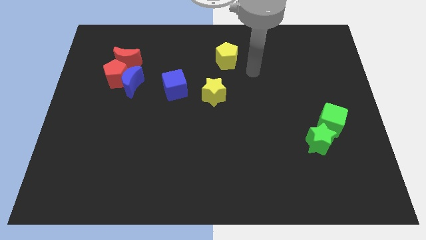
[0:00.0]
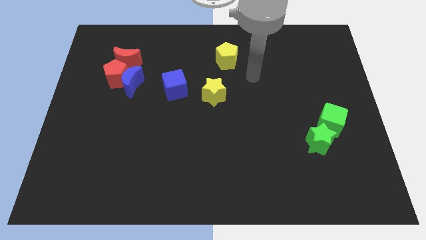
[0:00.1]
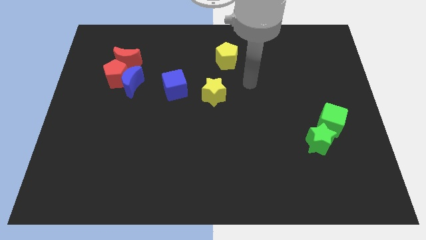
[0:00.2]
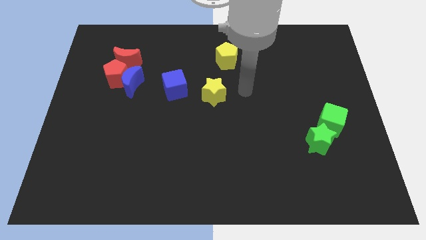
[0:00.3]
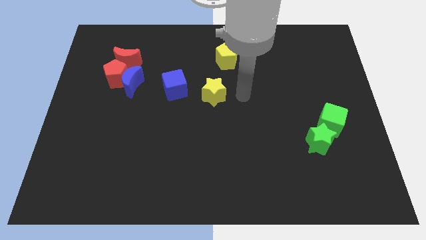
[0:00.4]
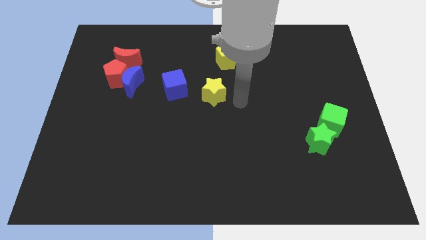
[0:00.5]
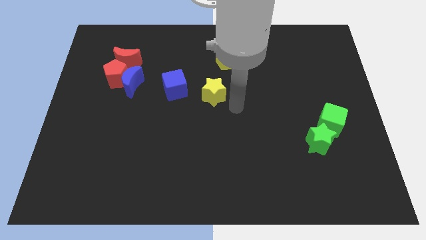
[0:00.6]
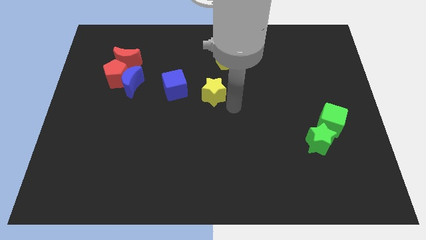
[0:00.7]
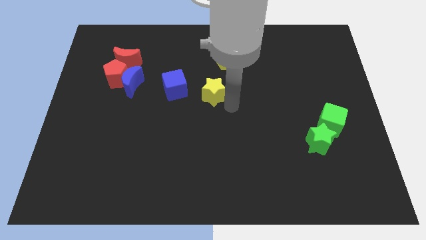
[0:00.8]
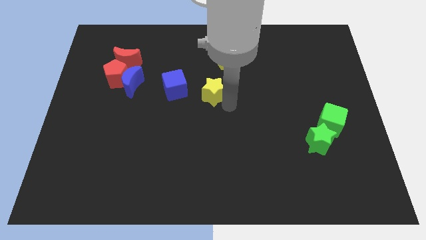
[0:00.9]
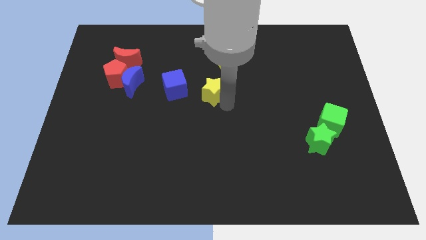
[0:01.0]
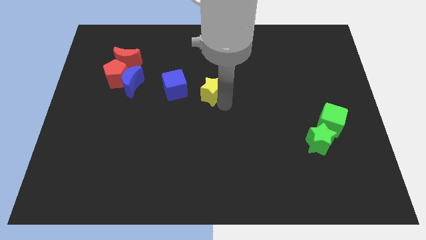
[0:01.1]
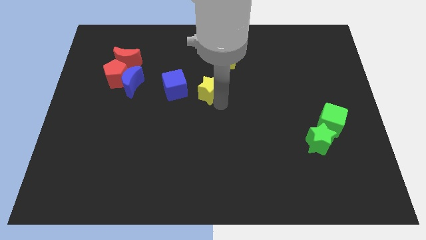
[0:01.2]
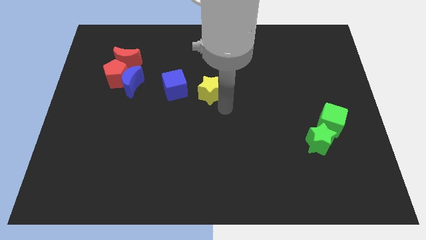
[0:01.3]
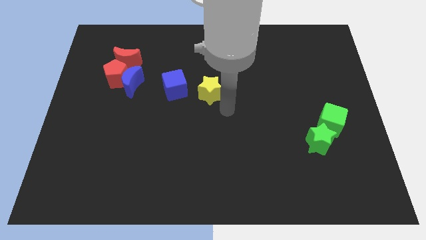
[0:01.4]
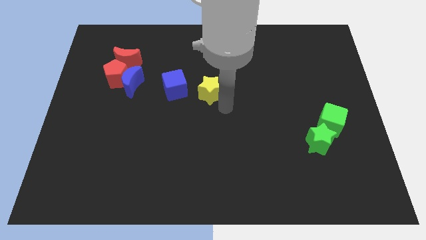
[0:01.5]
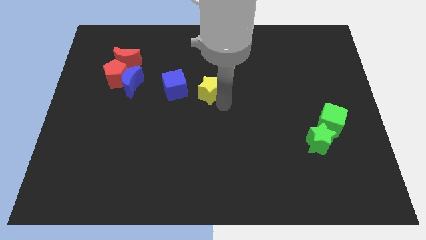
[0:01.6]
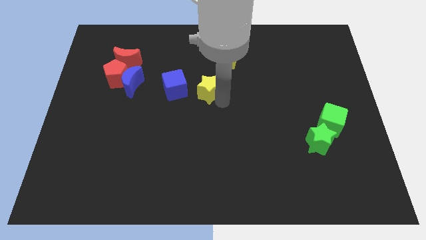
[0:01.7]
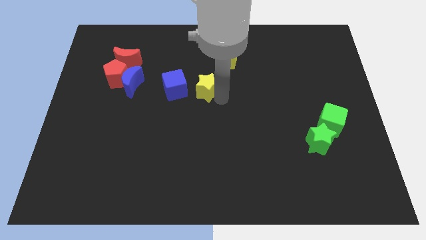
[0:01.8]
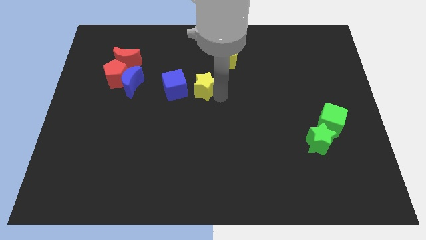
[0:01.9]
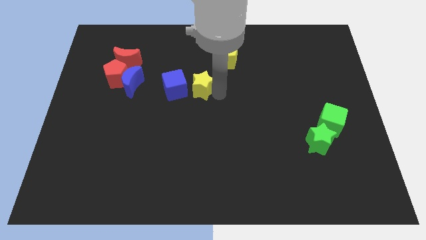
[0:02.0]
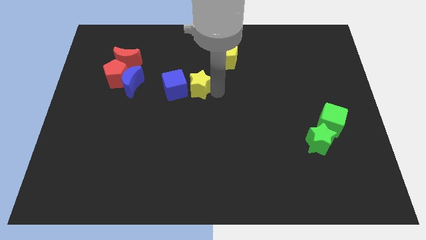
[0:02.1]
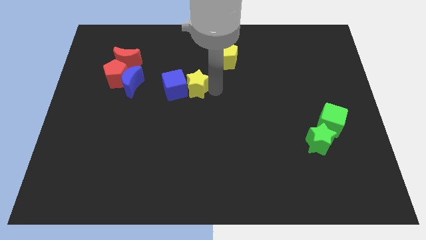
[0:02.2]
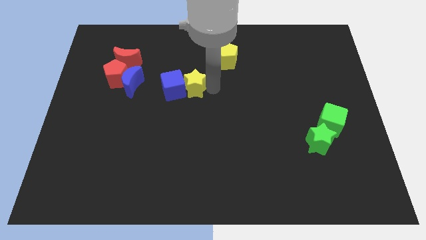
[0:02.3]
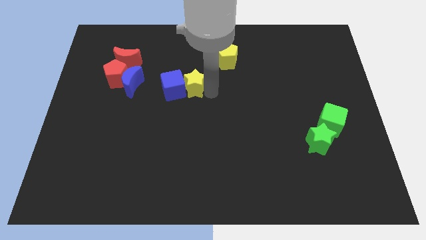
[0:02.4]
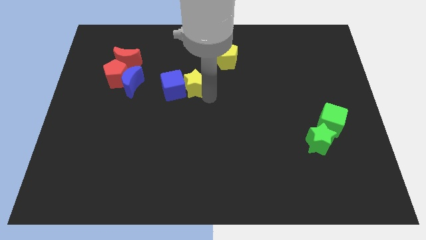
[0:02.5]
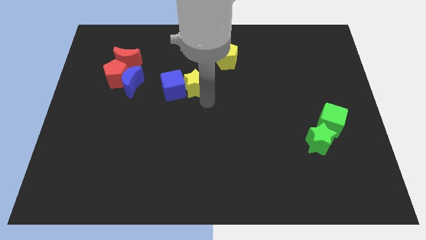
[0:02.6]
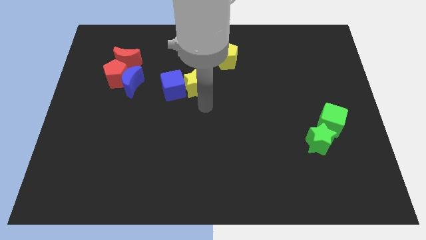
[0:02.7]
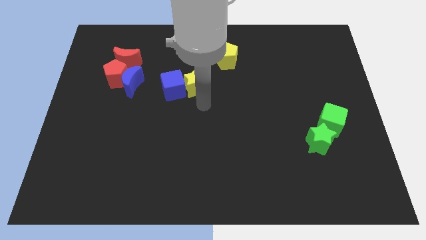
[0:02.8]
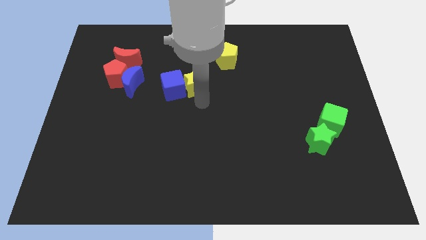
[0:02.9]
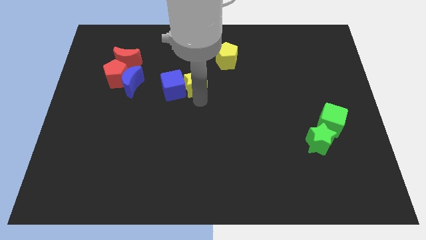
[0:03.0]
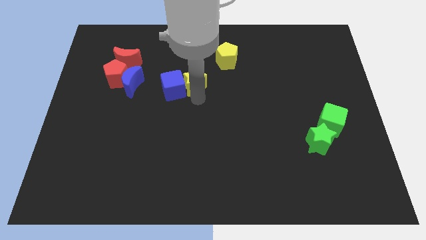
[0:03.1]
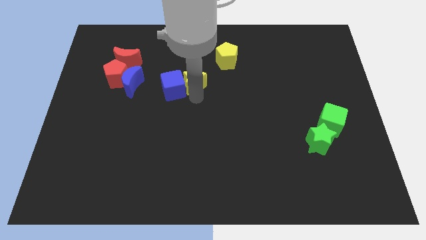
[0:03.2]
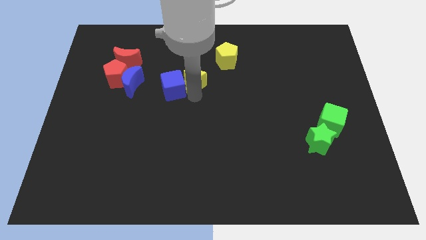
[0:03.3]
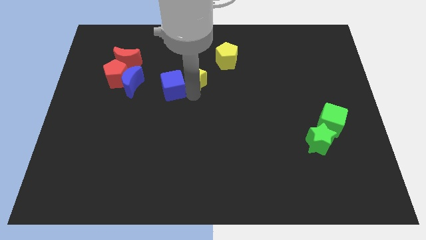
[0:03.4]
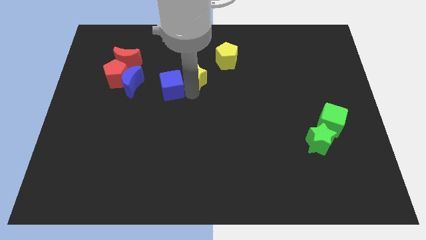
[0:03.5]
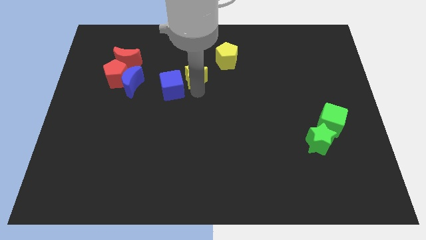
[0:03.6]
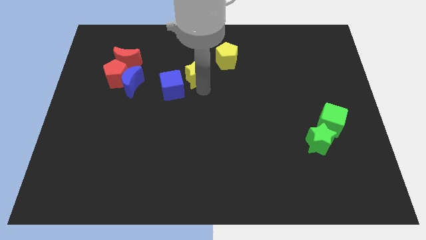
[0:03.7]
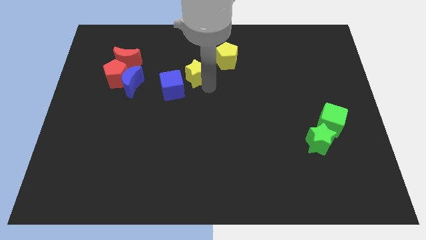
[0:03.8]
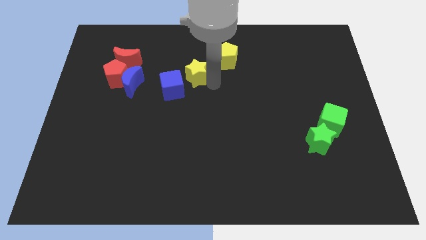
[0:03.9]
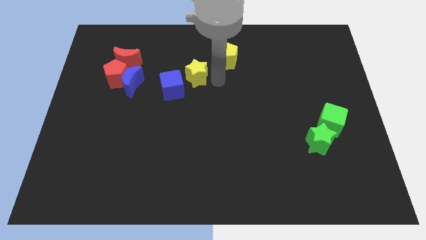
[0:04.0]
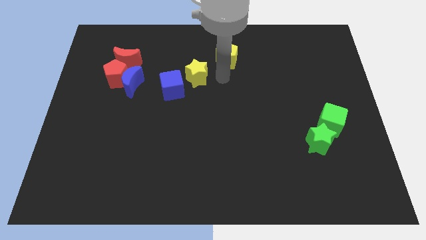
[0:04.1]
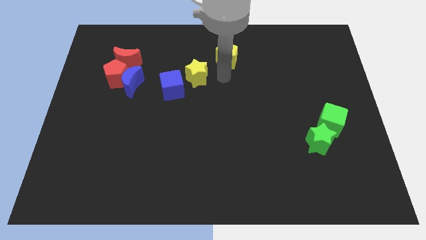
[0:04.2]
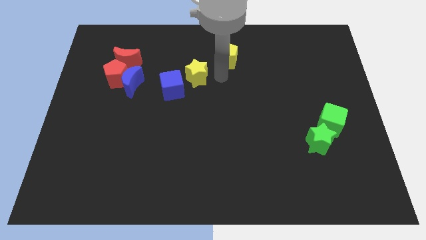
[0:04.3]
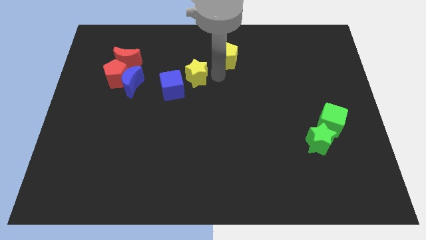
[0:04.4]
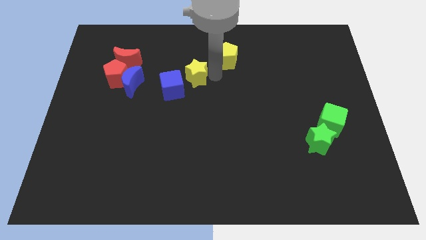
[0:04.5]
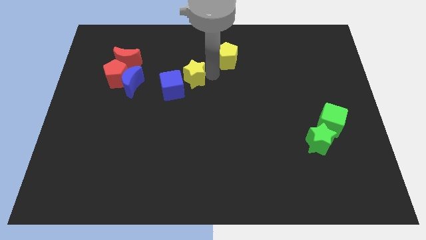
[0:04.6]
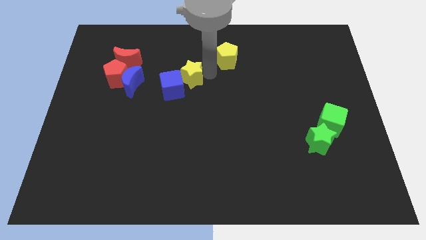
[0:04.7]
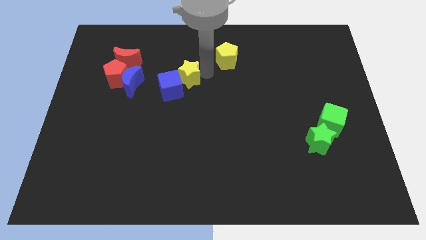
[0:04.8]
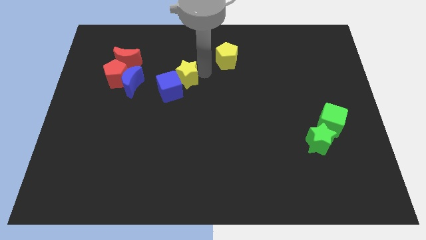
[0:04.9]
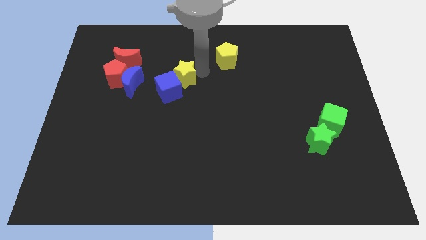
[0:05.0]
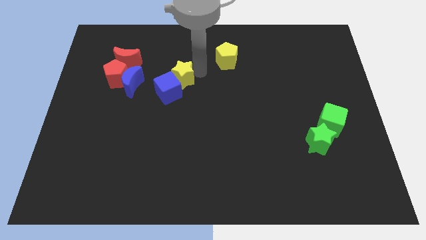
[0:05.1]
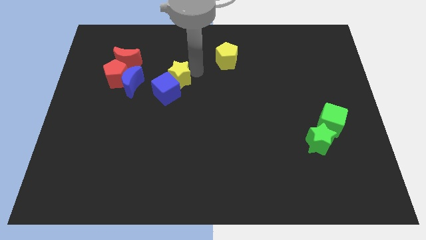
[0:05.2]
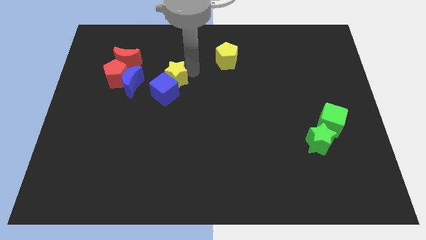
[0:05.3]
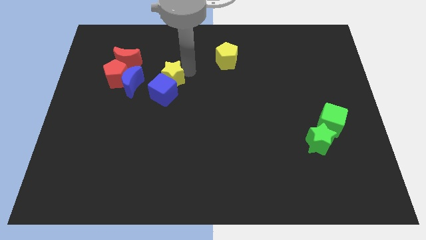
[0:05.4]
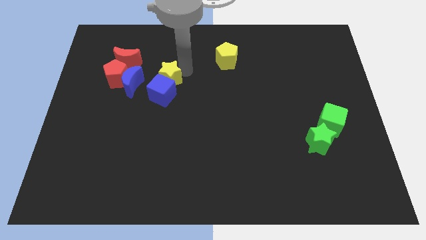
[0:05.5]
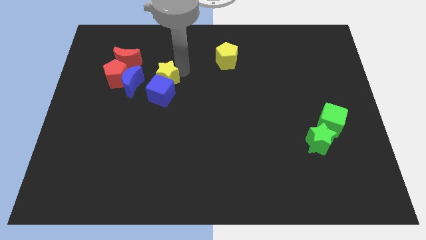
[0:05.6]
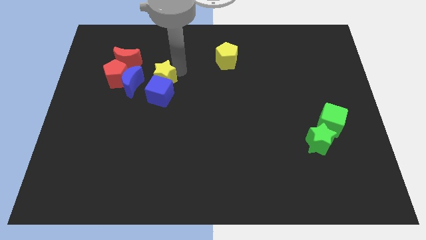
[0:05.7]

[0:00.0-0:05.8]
push the yellow star to the bottom right side of the red moon

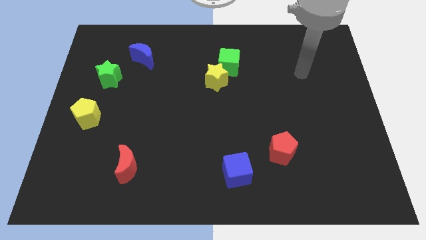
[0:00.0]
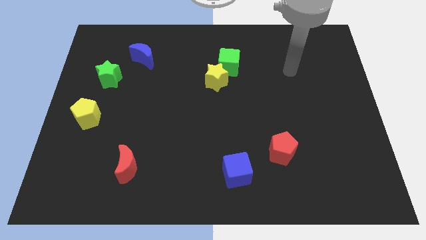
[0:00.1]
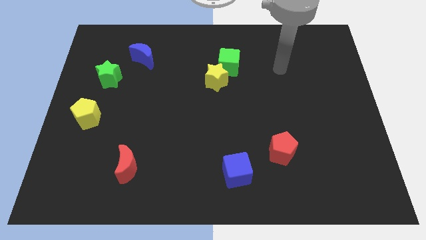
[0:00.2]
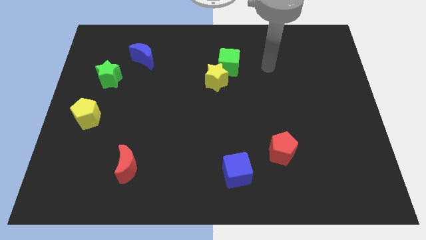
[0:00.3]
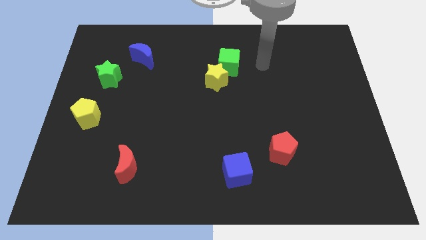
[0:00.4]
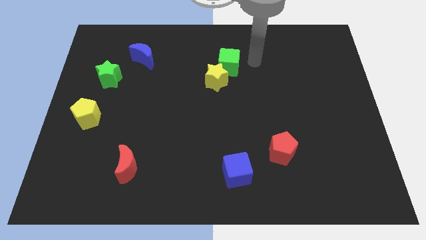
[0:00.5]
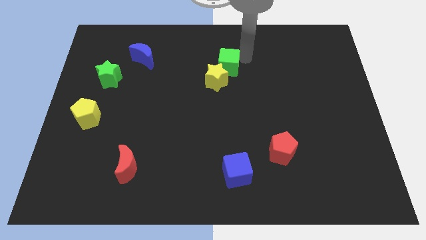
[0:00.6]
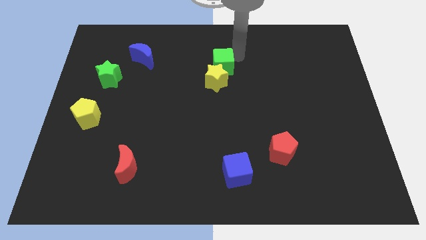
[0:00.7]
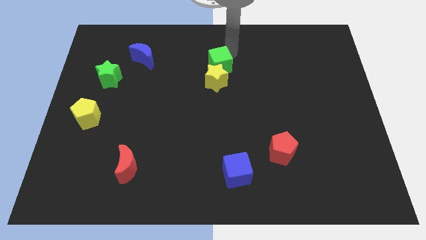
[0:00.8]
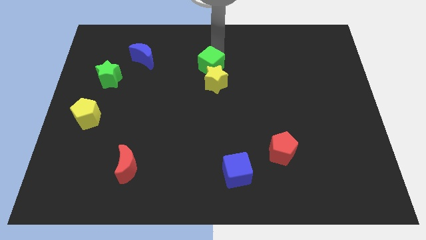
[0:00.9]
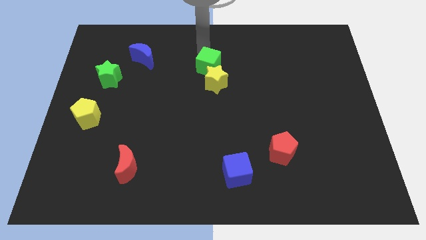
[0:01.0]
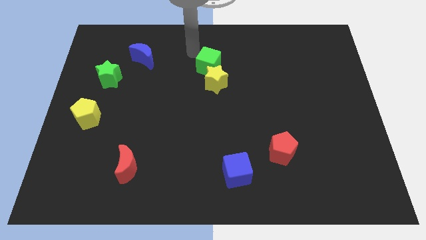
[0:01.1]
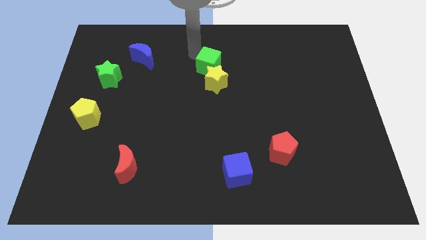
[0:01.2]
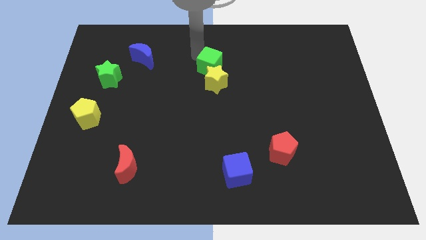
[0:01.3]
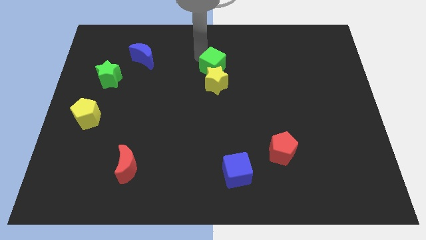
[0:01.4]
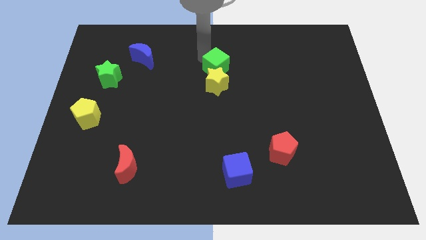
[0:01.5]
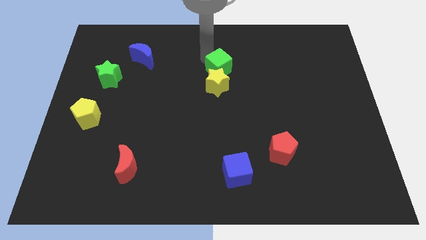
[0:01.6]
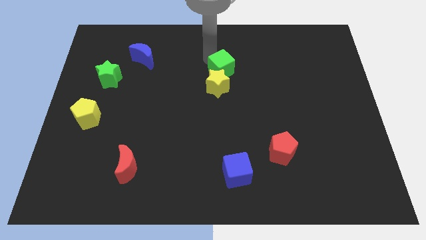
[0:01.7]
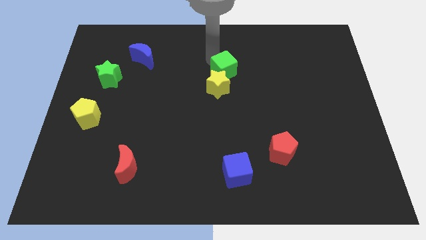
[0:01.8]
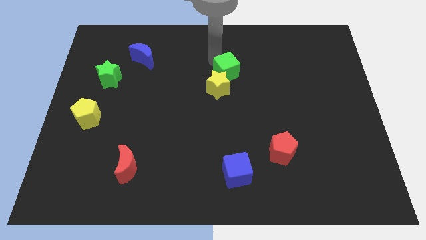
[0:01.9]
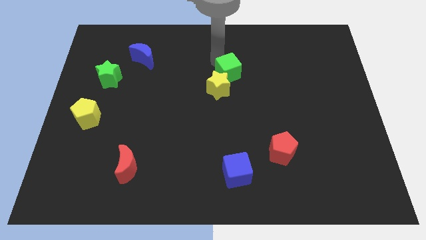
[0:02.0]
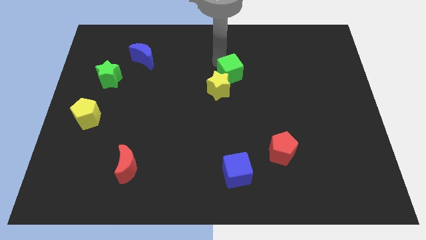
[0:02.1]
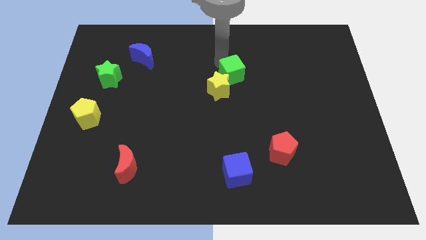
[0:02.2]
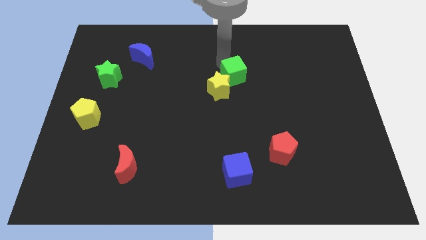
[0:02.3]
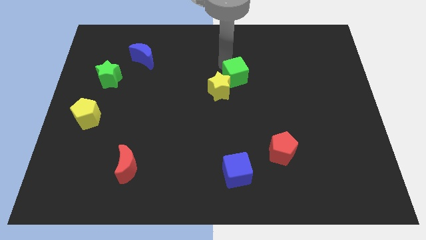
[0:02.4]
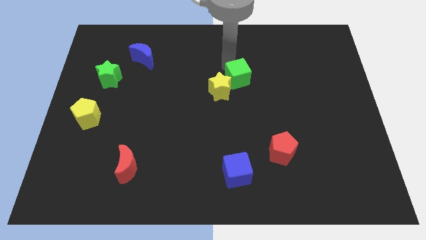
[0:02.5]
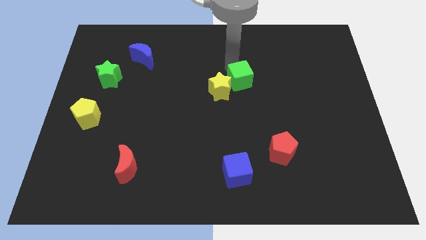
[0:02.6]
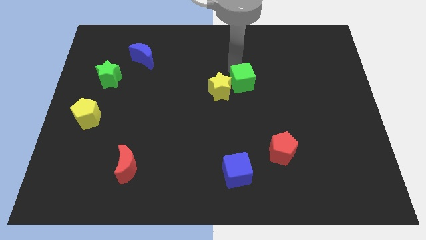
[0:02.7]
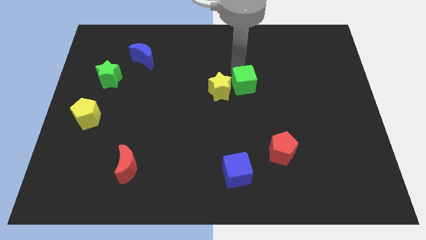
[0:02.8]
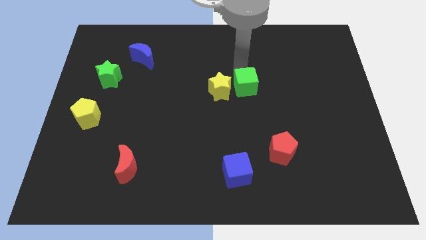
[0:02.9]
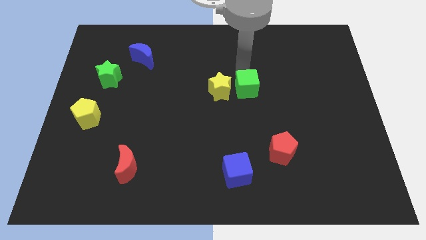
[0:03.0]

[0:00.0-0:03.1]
push the green cube to the bottom right side of the yellow star
